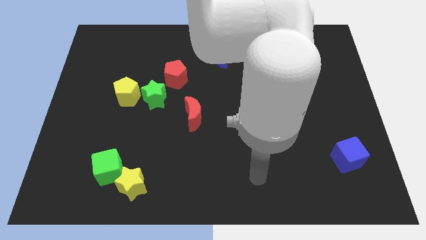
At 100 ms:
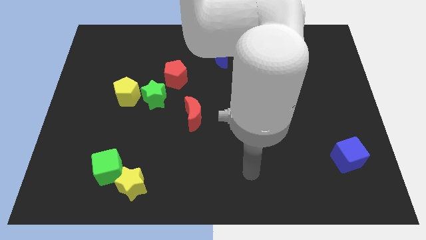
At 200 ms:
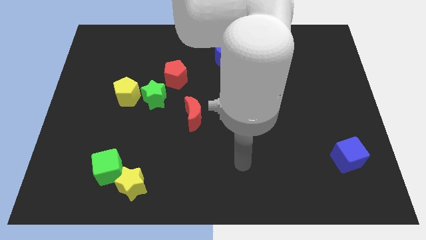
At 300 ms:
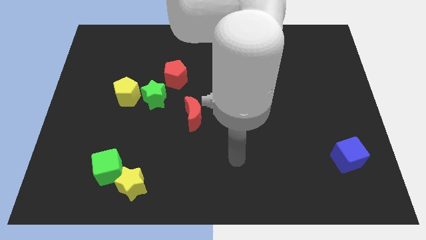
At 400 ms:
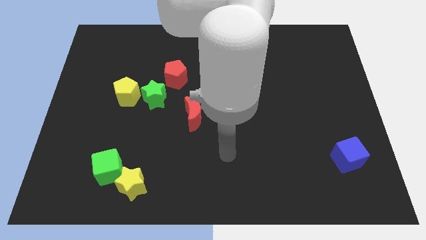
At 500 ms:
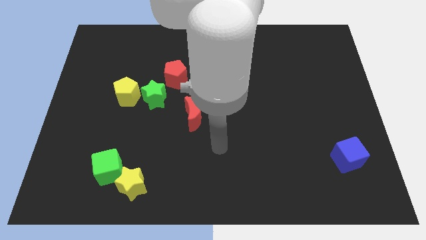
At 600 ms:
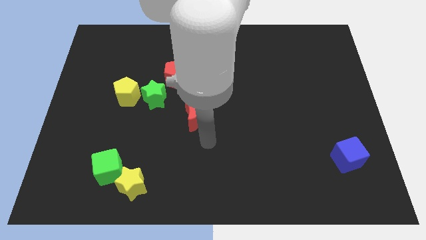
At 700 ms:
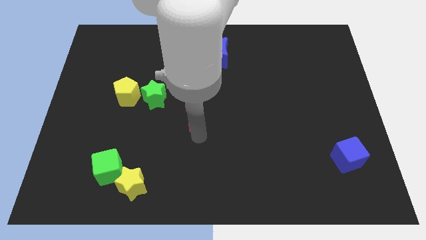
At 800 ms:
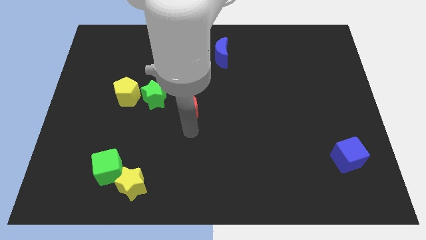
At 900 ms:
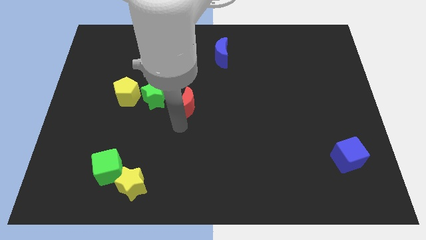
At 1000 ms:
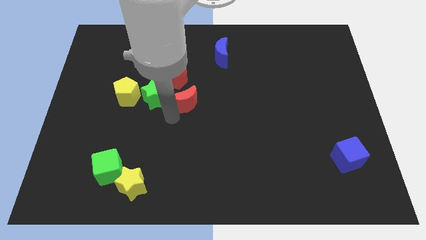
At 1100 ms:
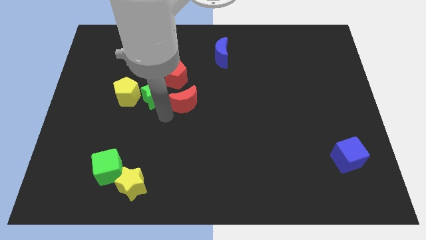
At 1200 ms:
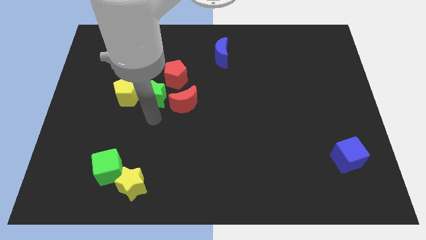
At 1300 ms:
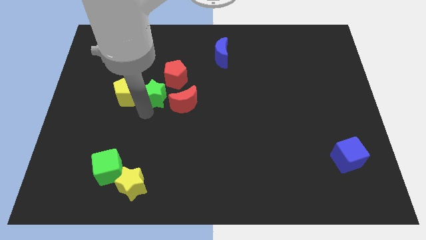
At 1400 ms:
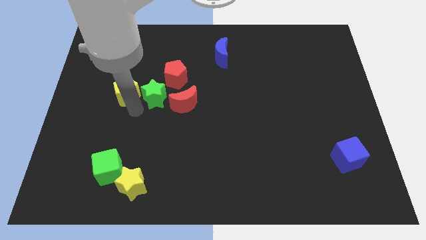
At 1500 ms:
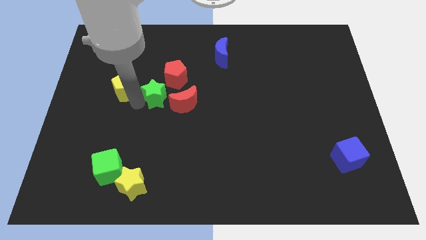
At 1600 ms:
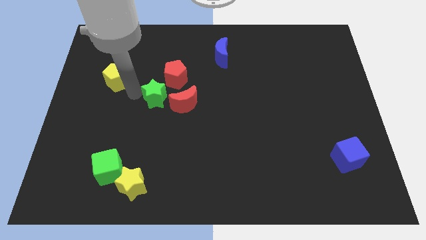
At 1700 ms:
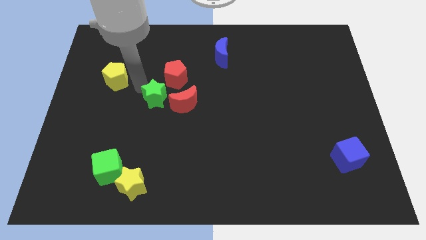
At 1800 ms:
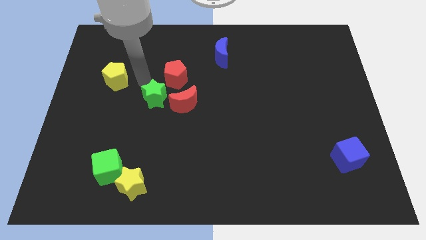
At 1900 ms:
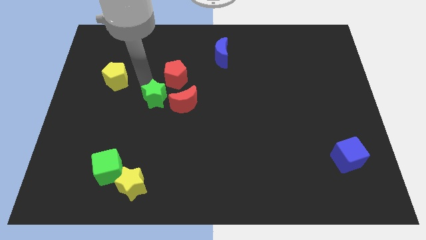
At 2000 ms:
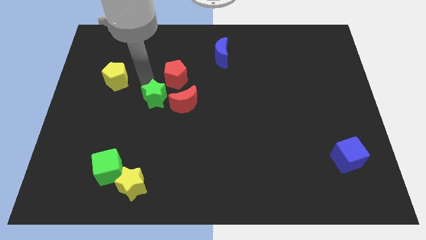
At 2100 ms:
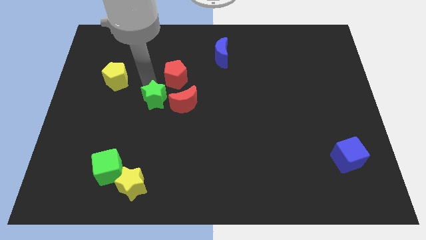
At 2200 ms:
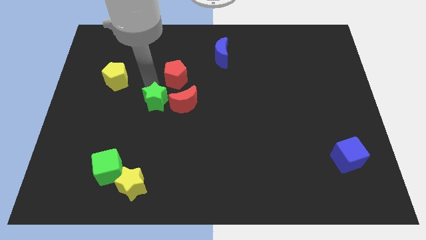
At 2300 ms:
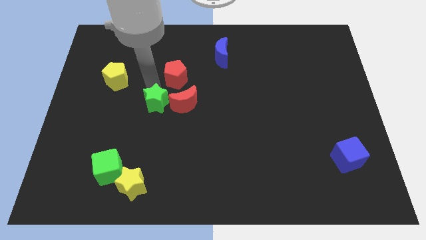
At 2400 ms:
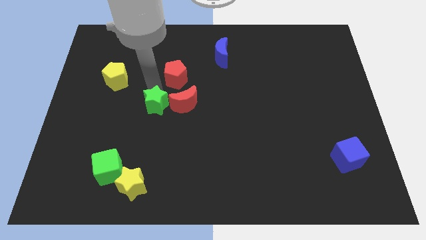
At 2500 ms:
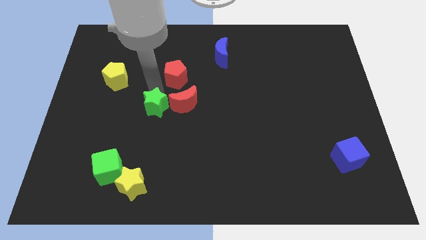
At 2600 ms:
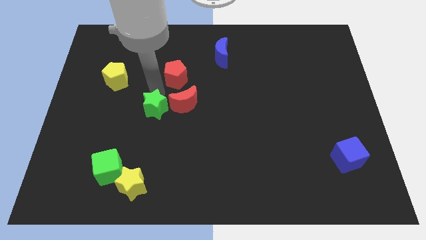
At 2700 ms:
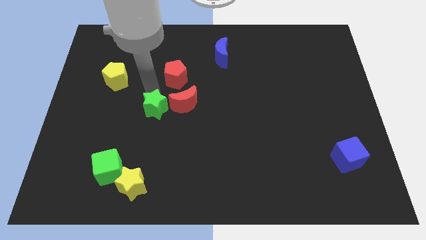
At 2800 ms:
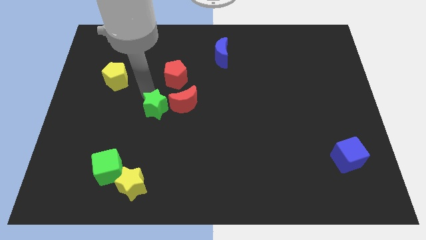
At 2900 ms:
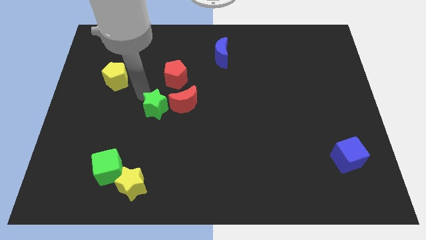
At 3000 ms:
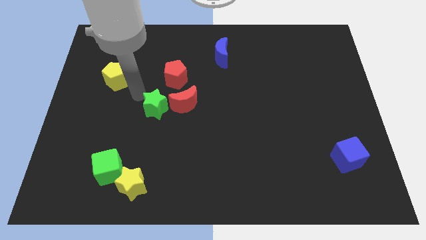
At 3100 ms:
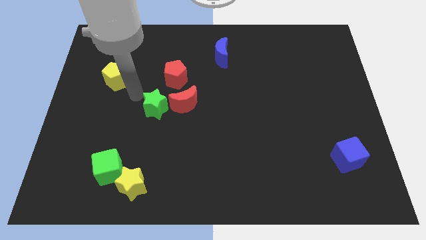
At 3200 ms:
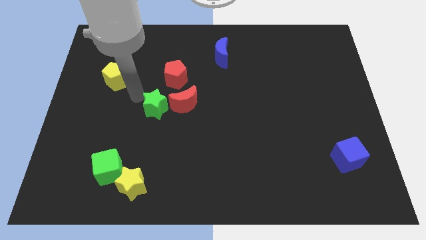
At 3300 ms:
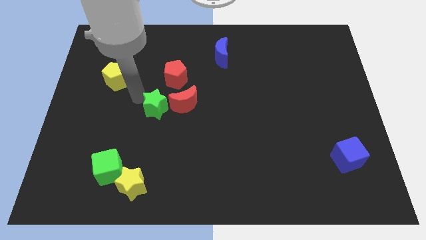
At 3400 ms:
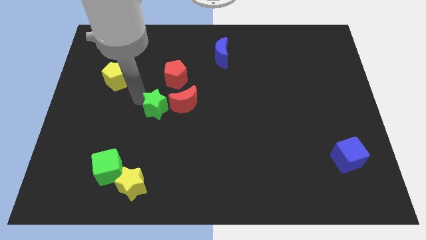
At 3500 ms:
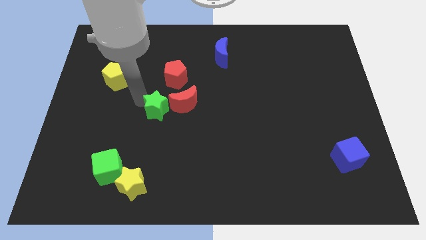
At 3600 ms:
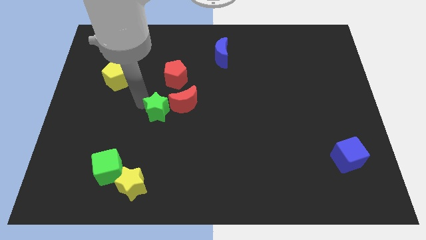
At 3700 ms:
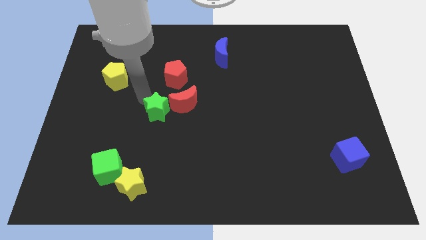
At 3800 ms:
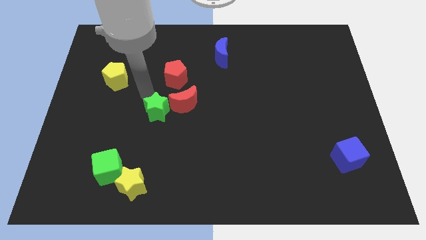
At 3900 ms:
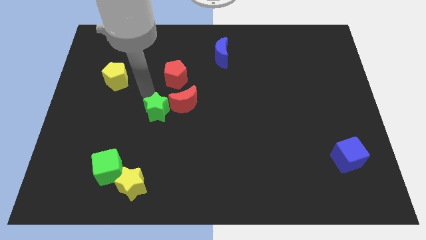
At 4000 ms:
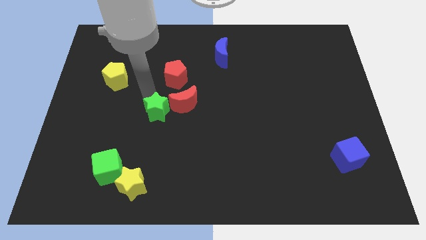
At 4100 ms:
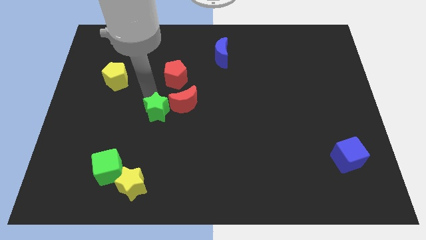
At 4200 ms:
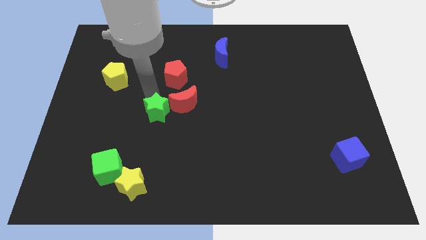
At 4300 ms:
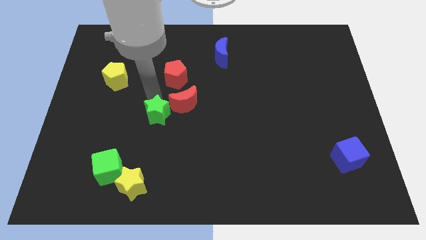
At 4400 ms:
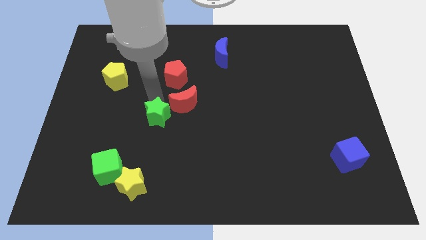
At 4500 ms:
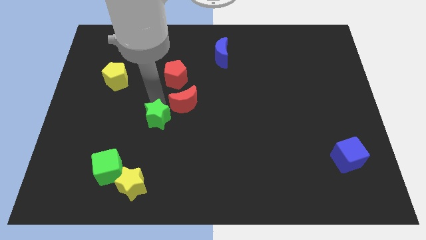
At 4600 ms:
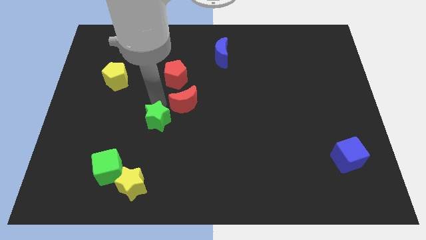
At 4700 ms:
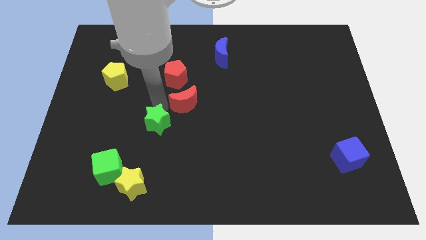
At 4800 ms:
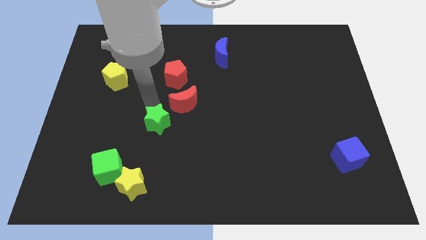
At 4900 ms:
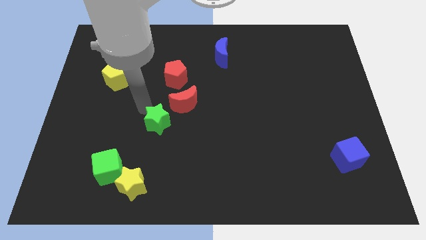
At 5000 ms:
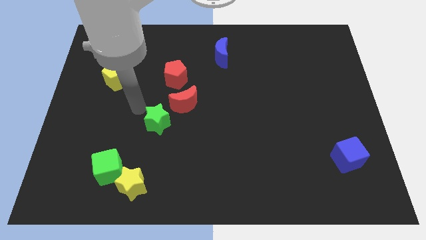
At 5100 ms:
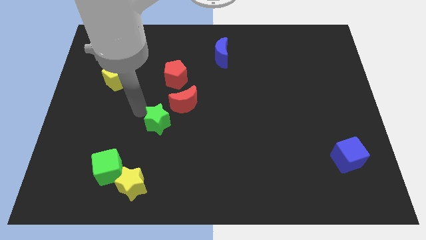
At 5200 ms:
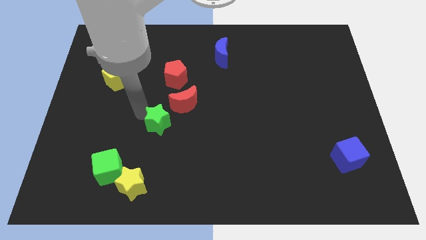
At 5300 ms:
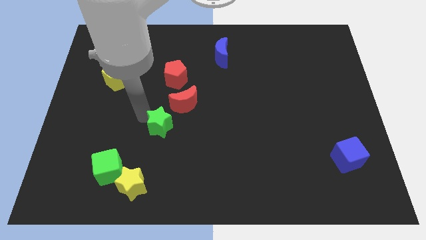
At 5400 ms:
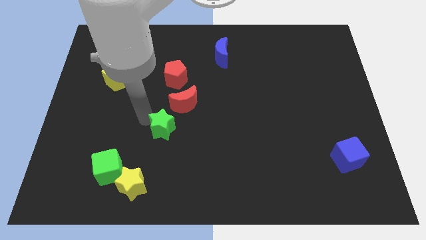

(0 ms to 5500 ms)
slide the green star somewhat diagonally down and right

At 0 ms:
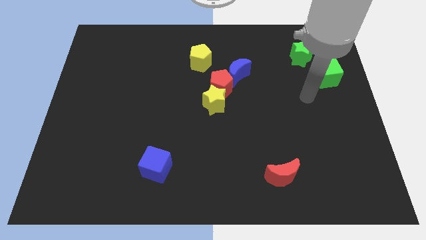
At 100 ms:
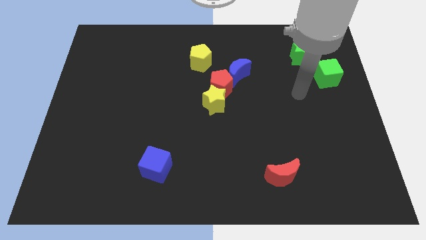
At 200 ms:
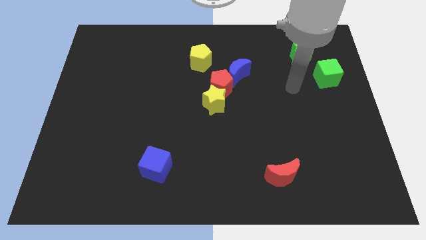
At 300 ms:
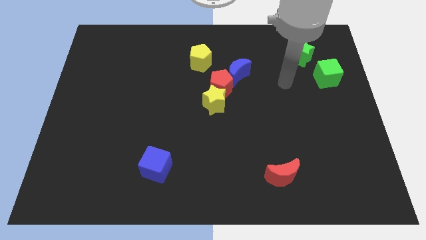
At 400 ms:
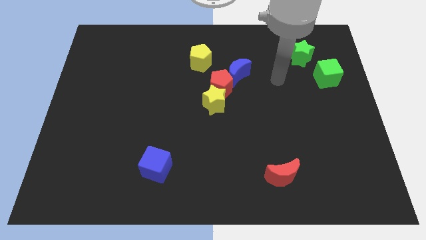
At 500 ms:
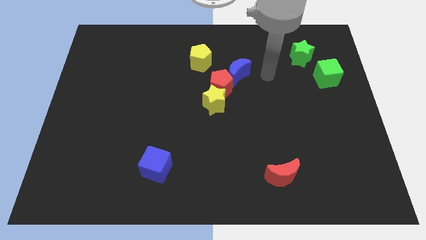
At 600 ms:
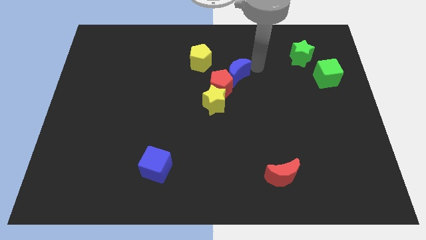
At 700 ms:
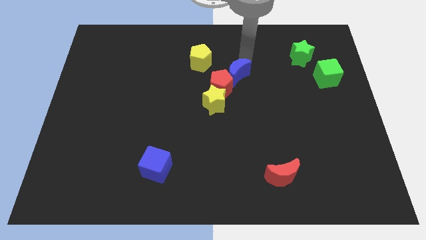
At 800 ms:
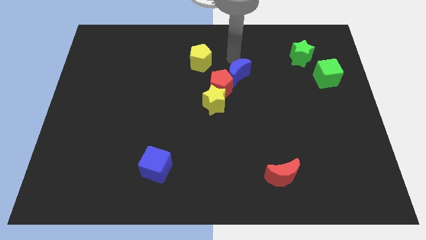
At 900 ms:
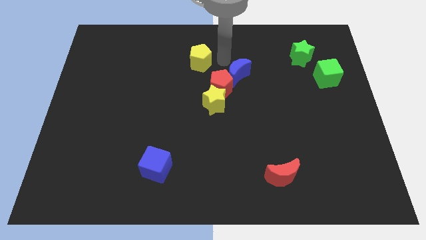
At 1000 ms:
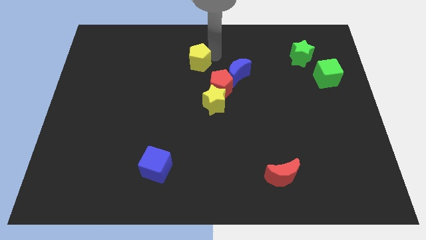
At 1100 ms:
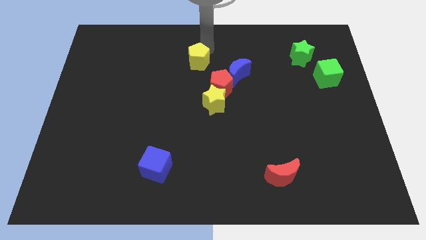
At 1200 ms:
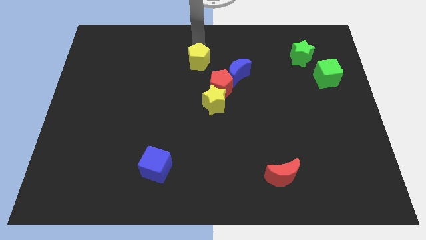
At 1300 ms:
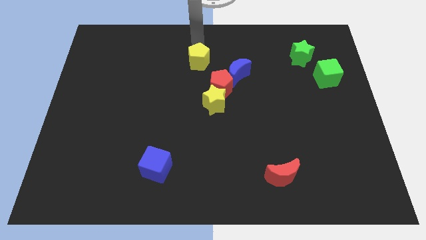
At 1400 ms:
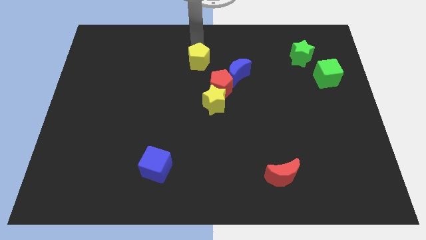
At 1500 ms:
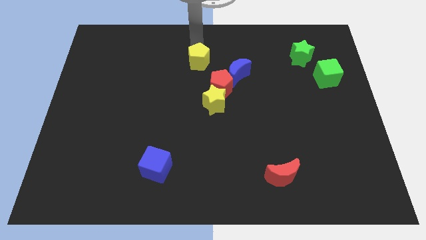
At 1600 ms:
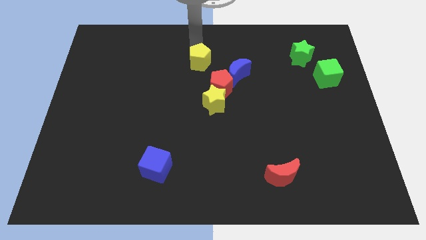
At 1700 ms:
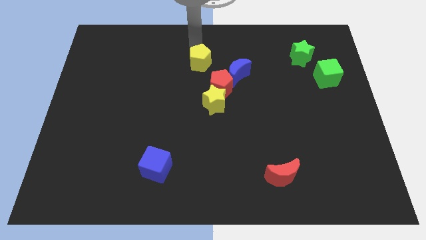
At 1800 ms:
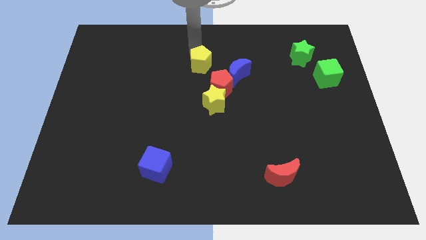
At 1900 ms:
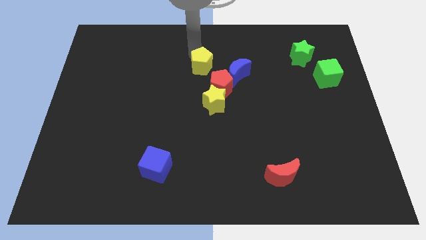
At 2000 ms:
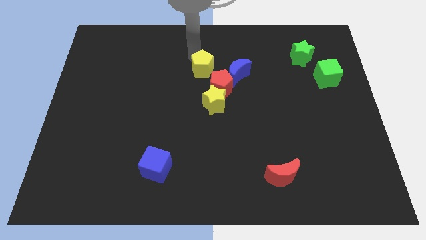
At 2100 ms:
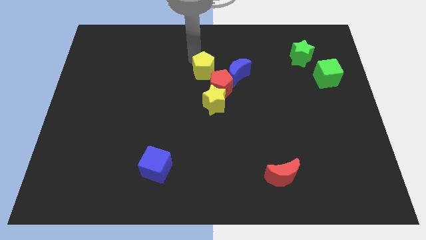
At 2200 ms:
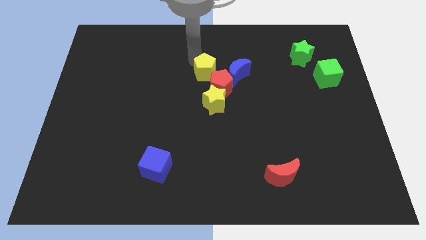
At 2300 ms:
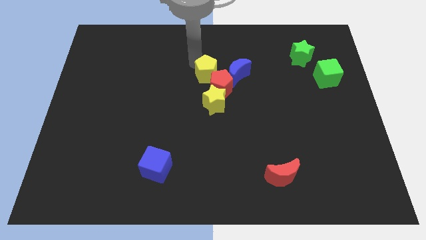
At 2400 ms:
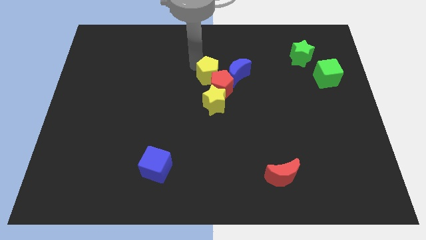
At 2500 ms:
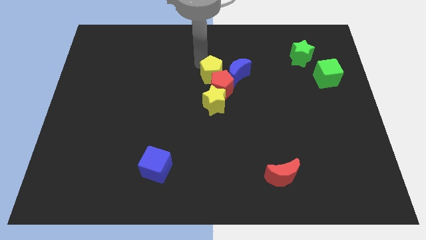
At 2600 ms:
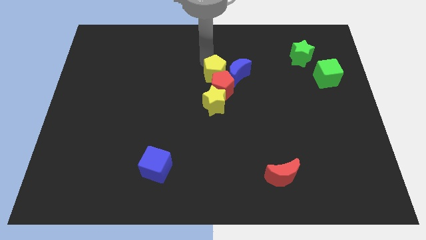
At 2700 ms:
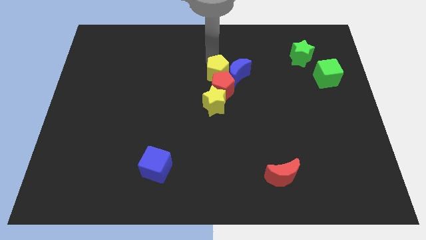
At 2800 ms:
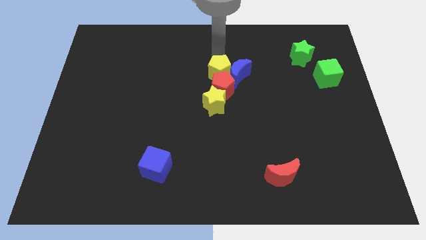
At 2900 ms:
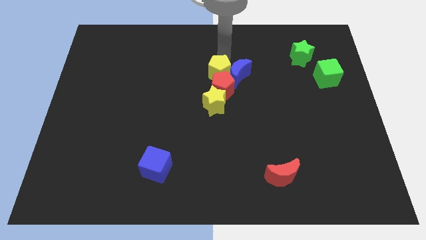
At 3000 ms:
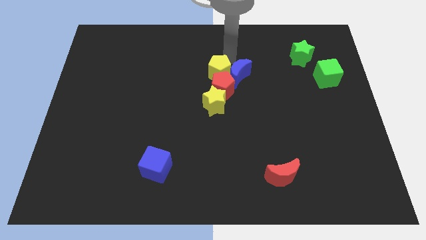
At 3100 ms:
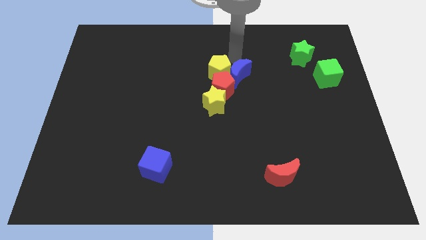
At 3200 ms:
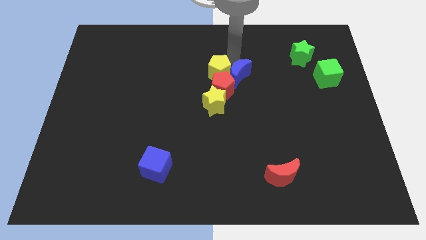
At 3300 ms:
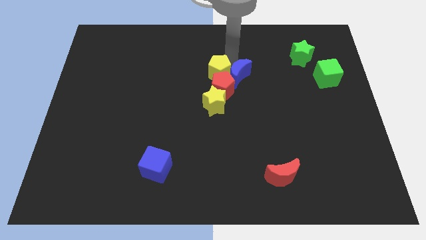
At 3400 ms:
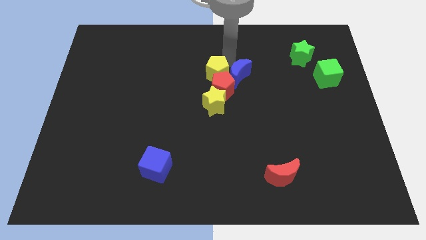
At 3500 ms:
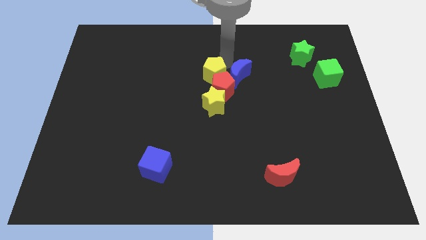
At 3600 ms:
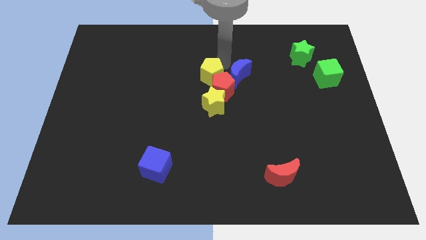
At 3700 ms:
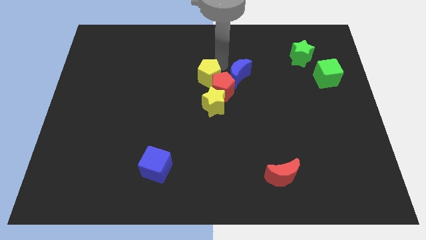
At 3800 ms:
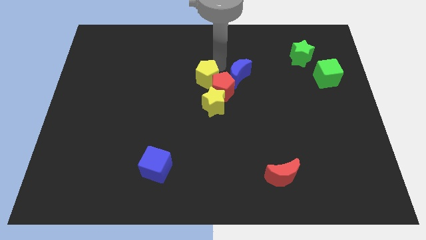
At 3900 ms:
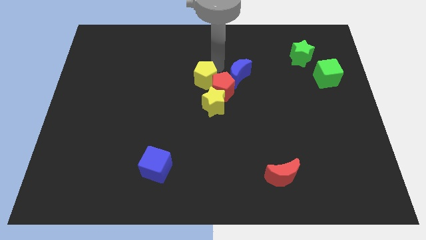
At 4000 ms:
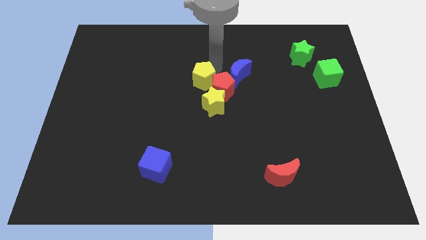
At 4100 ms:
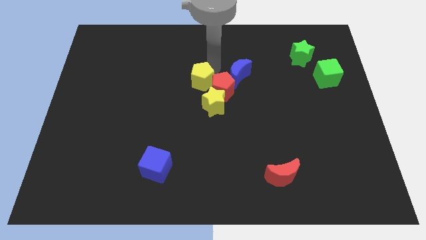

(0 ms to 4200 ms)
slightly slide the yellow pentagon down
